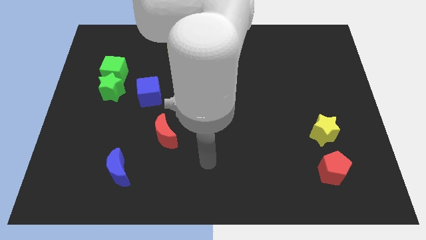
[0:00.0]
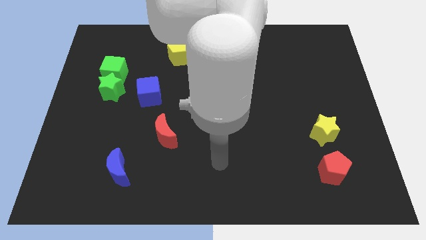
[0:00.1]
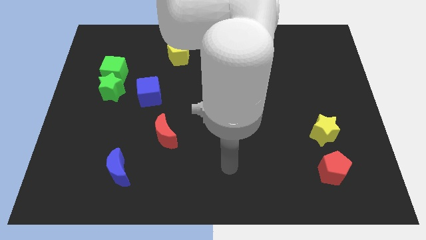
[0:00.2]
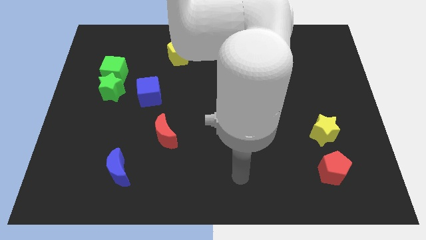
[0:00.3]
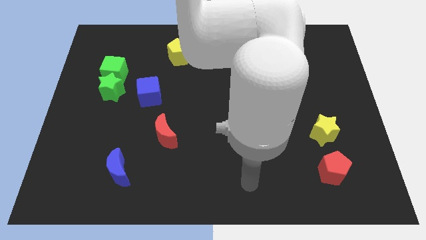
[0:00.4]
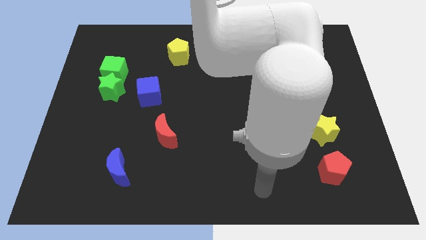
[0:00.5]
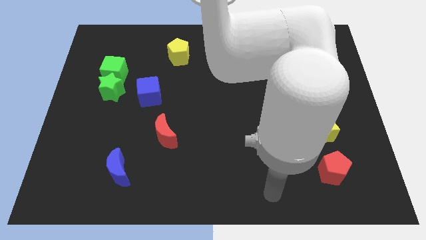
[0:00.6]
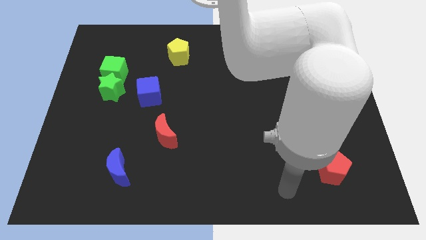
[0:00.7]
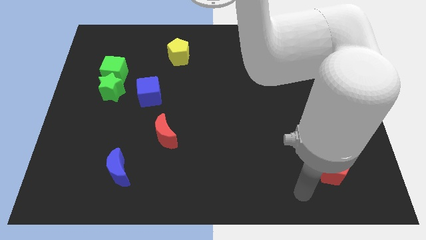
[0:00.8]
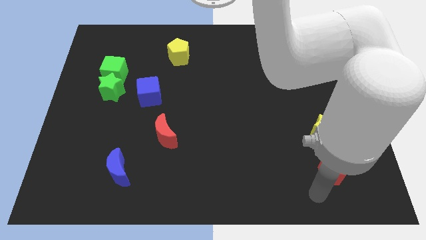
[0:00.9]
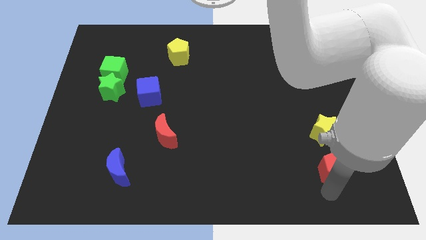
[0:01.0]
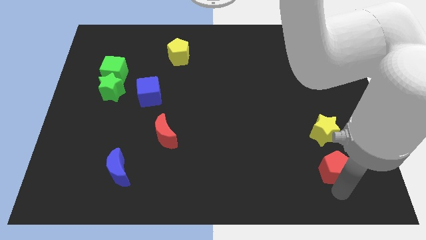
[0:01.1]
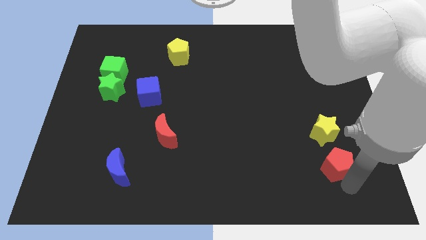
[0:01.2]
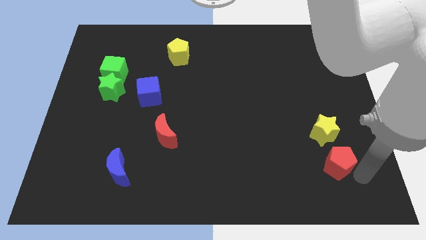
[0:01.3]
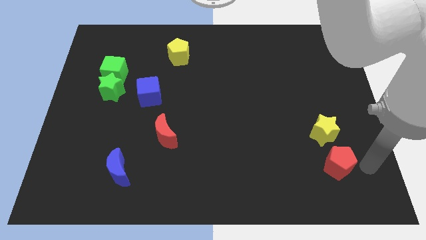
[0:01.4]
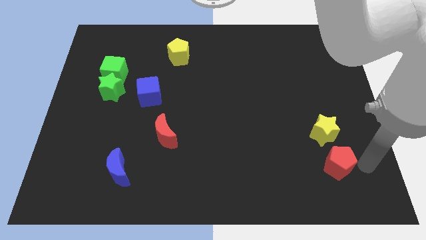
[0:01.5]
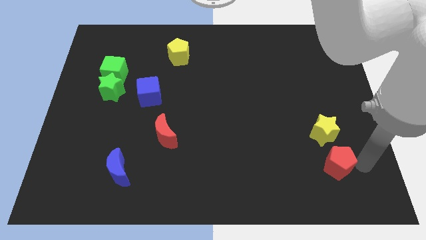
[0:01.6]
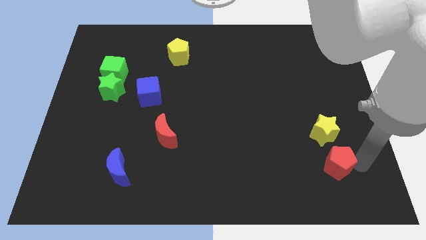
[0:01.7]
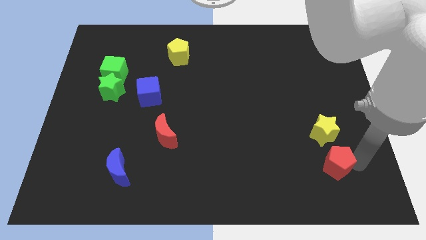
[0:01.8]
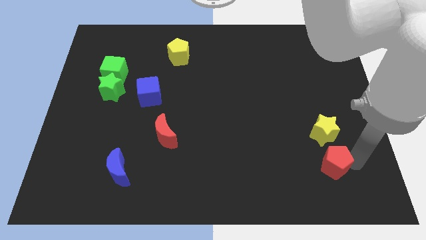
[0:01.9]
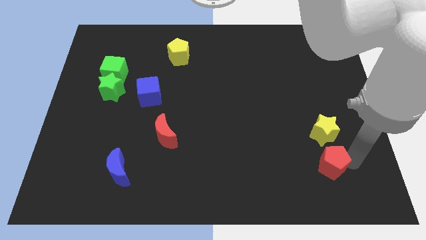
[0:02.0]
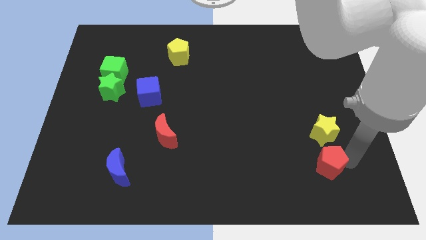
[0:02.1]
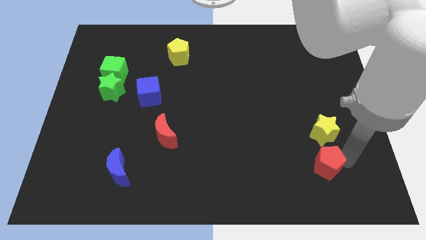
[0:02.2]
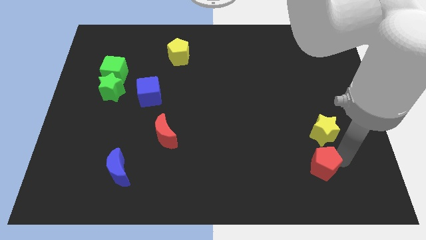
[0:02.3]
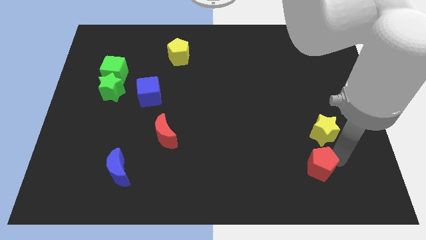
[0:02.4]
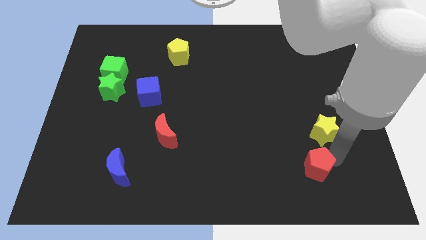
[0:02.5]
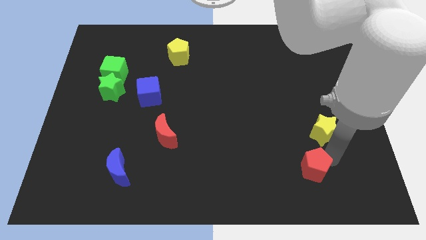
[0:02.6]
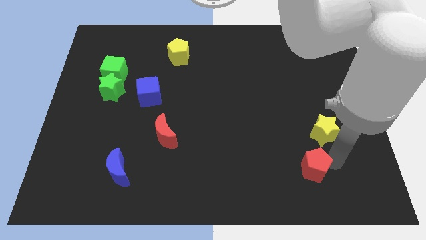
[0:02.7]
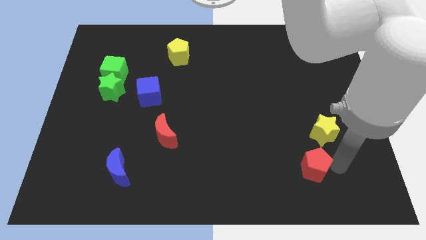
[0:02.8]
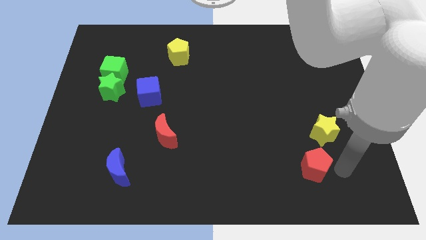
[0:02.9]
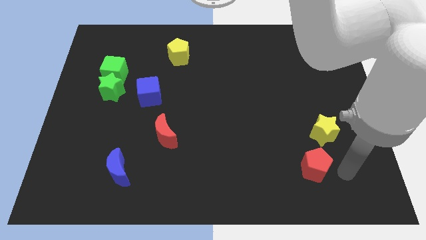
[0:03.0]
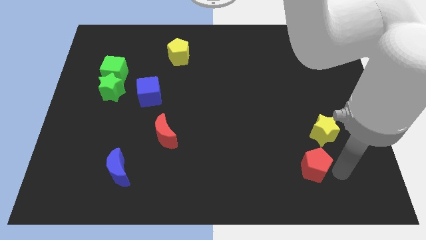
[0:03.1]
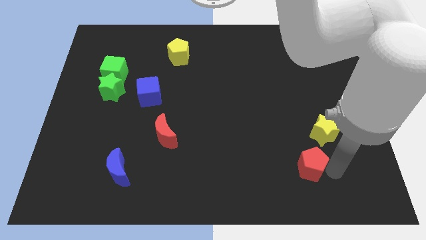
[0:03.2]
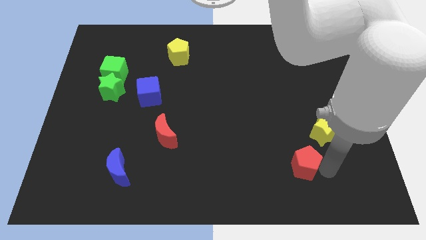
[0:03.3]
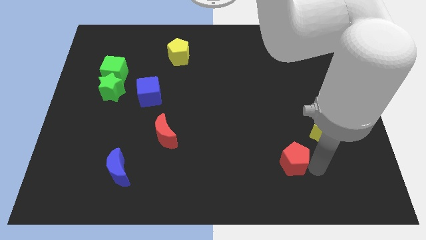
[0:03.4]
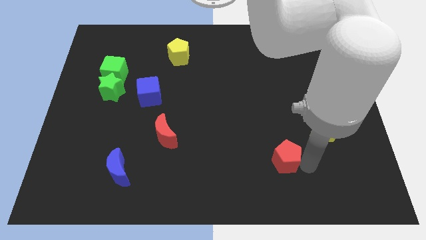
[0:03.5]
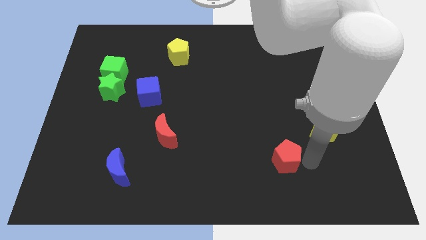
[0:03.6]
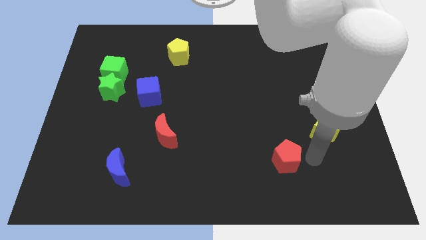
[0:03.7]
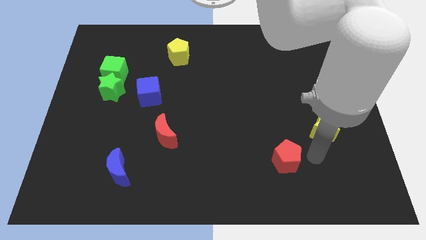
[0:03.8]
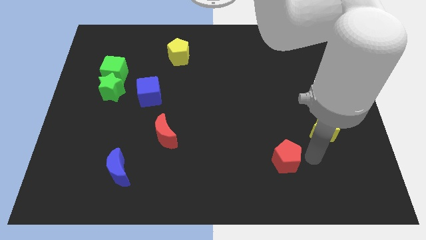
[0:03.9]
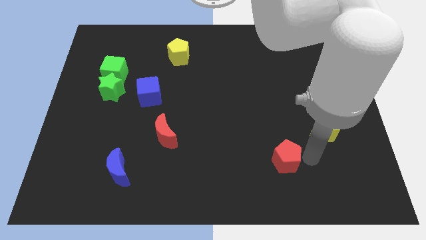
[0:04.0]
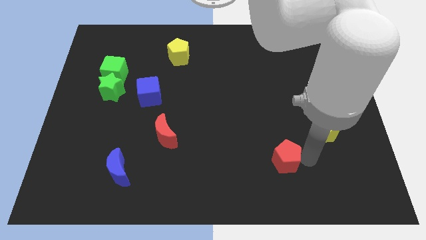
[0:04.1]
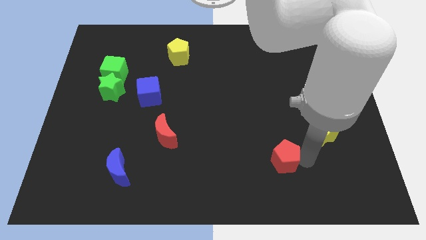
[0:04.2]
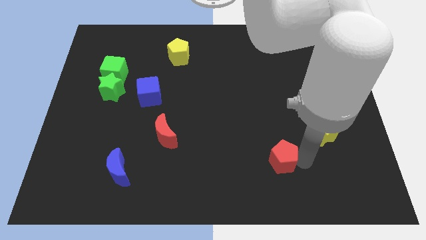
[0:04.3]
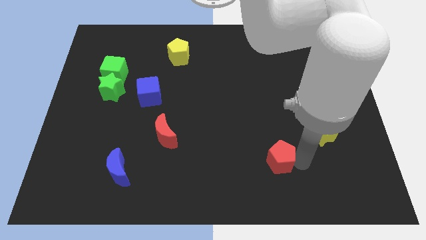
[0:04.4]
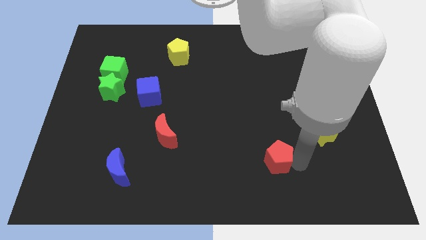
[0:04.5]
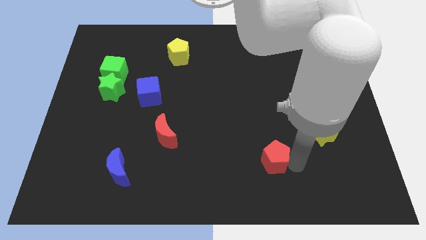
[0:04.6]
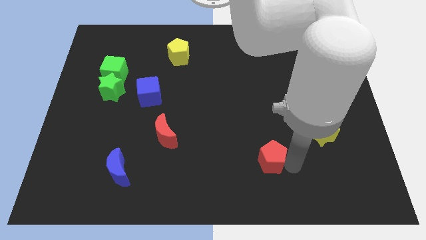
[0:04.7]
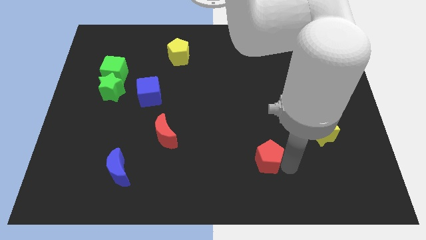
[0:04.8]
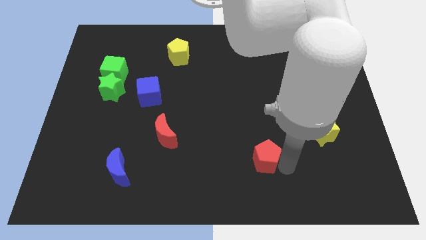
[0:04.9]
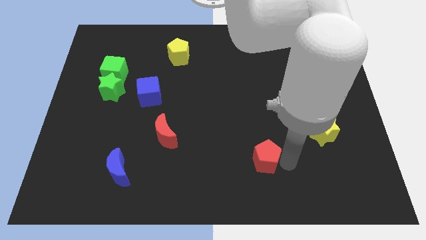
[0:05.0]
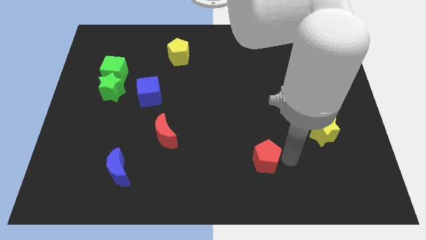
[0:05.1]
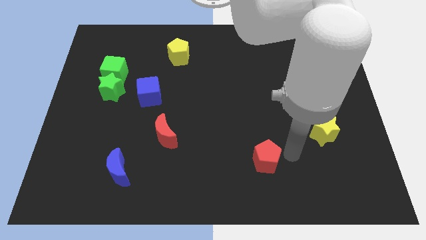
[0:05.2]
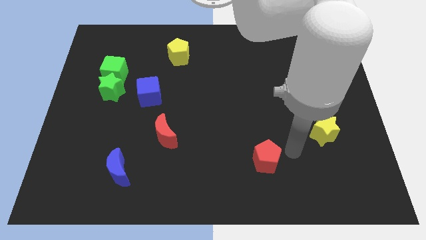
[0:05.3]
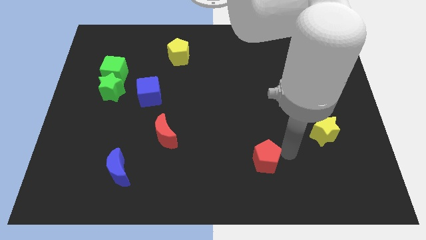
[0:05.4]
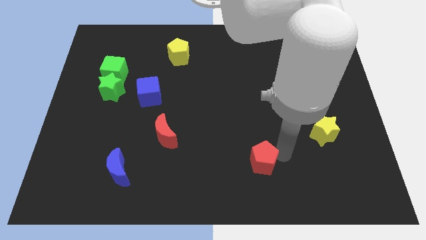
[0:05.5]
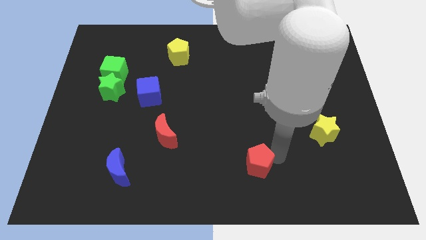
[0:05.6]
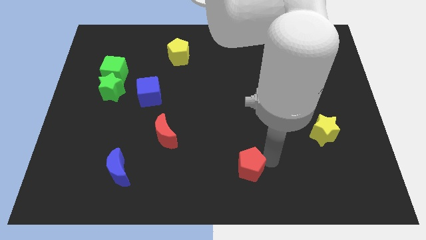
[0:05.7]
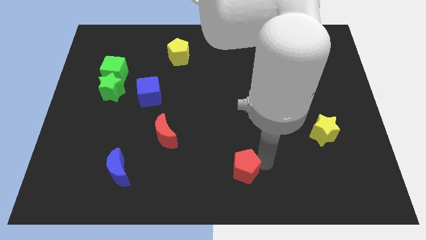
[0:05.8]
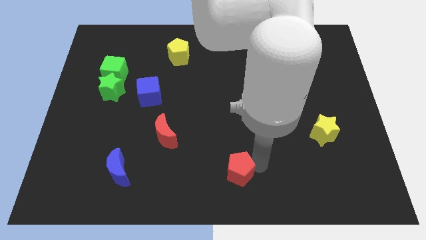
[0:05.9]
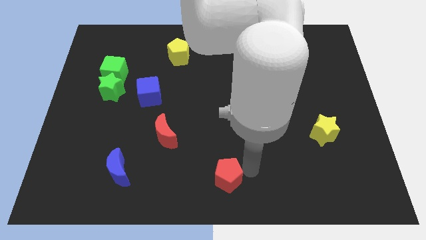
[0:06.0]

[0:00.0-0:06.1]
slide the red pentagon to the left

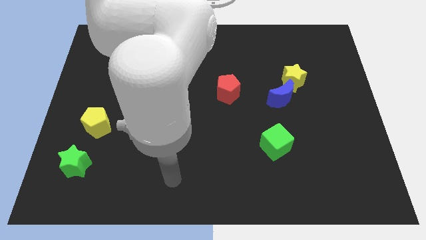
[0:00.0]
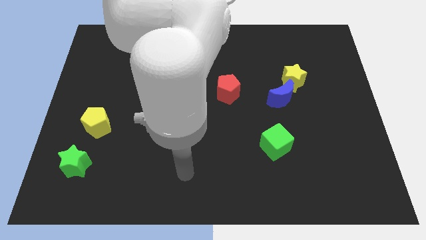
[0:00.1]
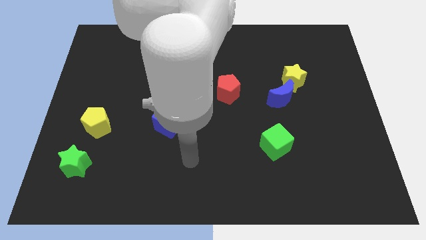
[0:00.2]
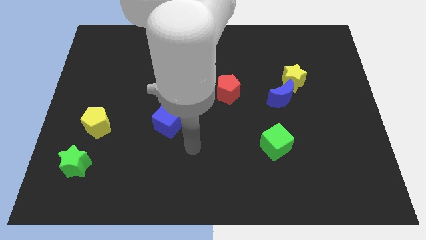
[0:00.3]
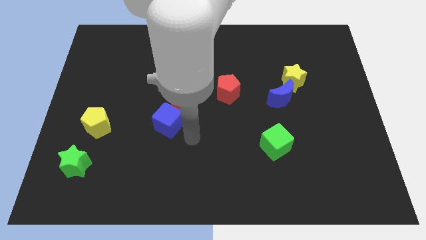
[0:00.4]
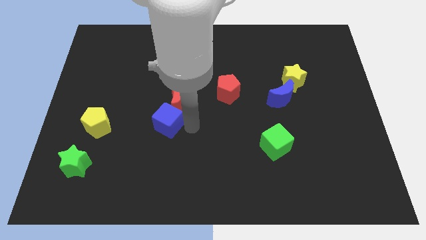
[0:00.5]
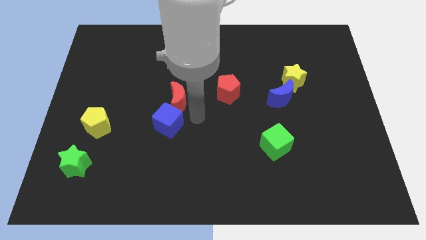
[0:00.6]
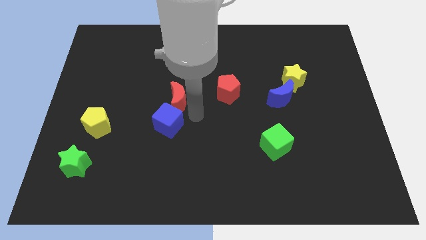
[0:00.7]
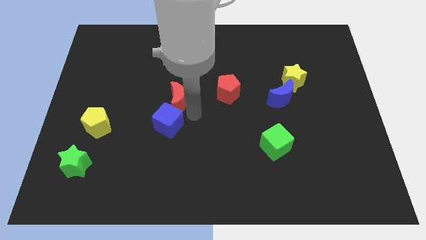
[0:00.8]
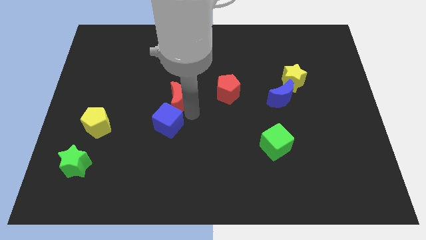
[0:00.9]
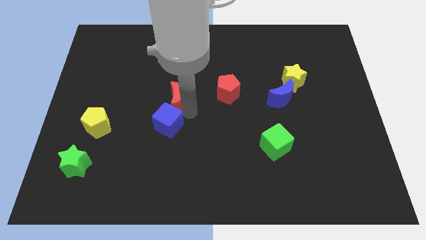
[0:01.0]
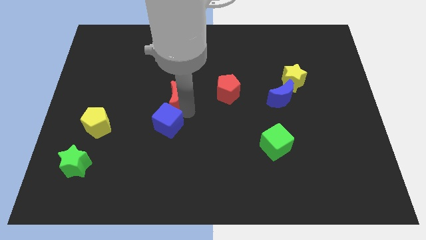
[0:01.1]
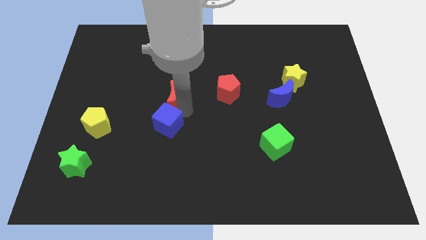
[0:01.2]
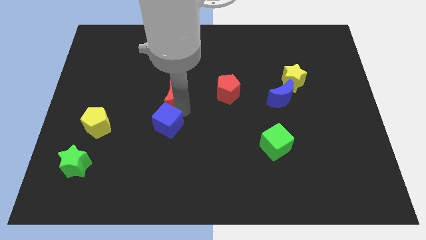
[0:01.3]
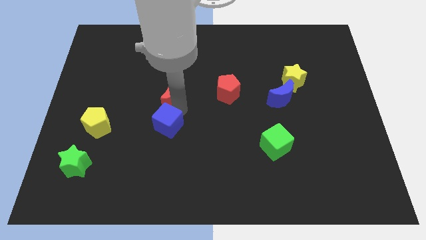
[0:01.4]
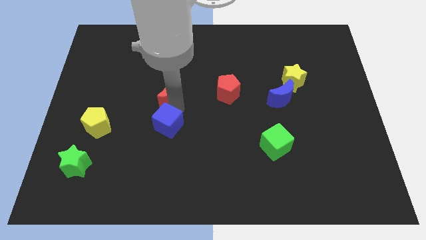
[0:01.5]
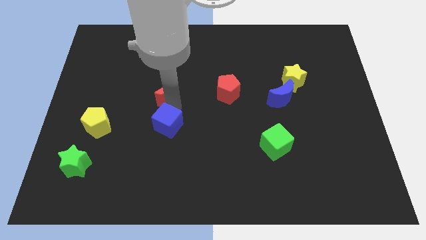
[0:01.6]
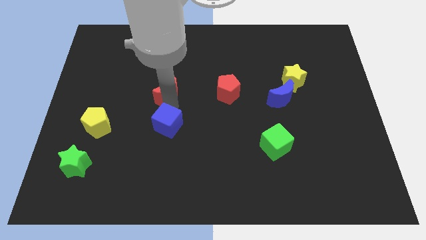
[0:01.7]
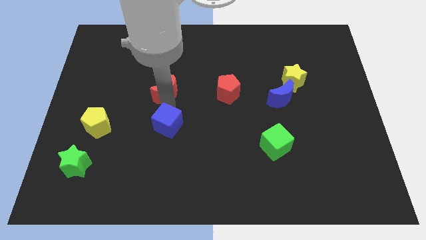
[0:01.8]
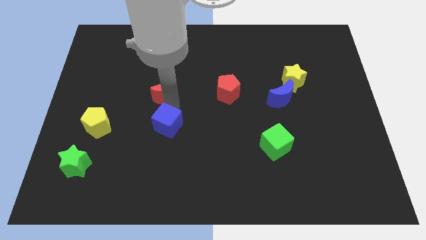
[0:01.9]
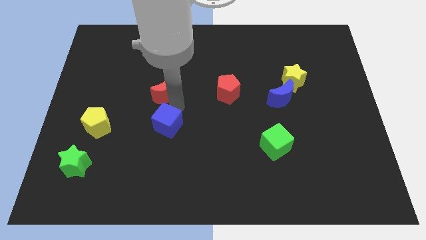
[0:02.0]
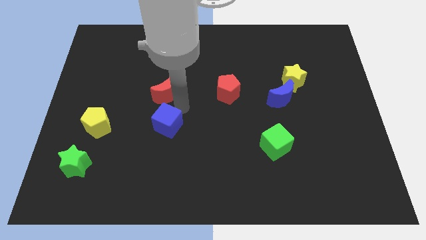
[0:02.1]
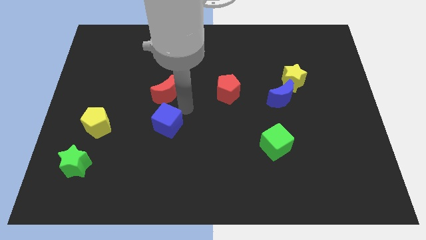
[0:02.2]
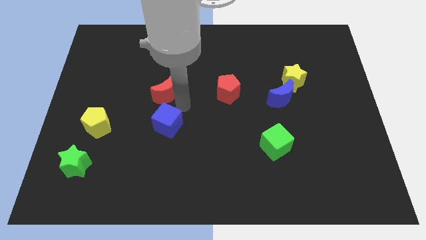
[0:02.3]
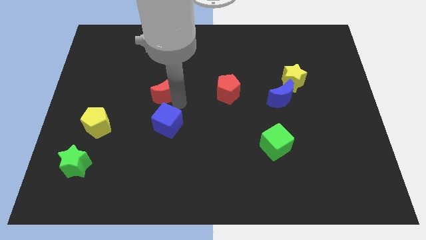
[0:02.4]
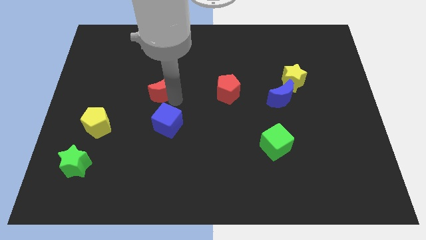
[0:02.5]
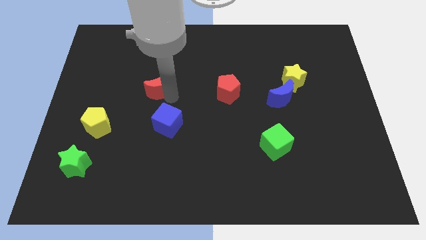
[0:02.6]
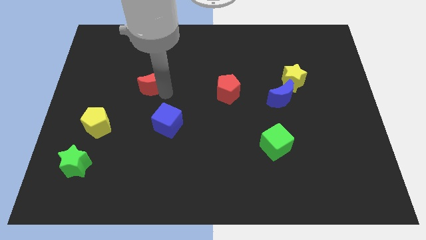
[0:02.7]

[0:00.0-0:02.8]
move the red moon up and to the left somewhat
